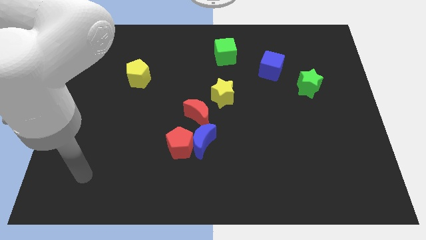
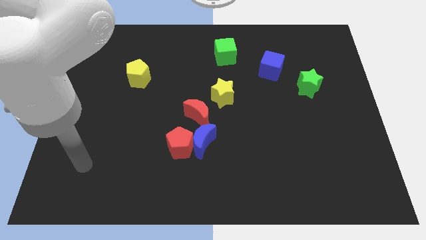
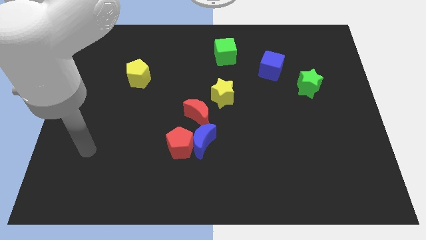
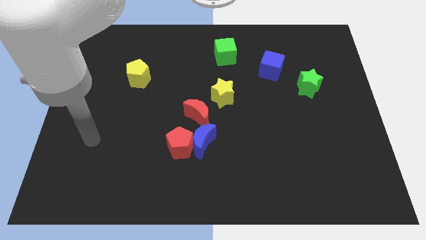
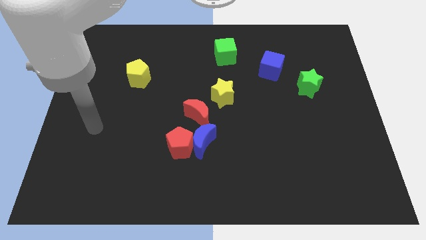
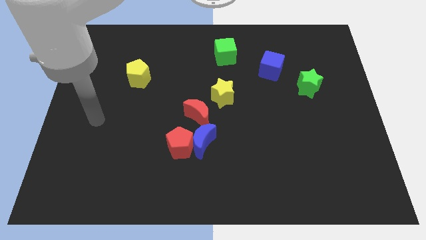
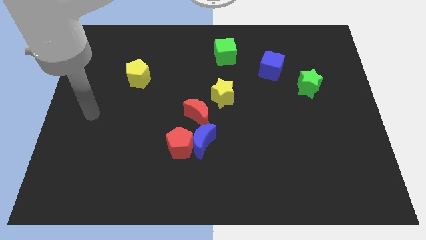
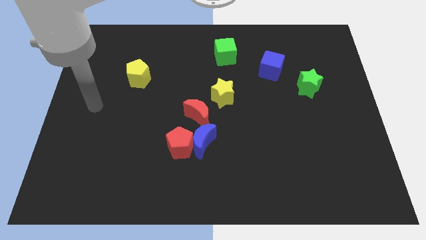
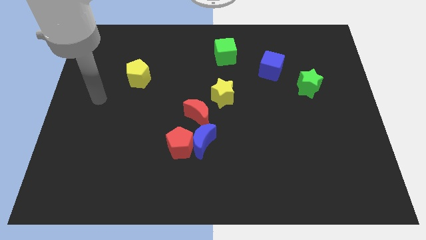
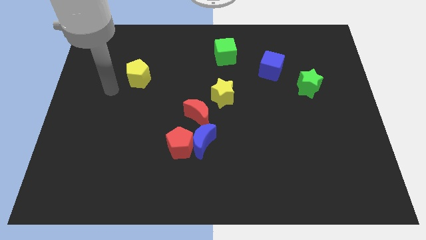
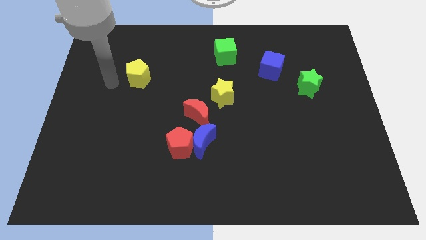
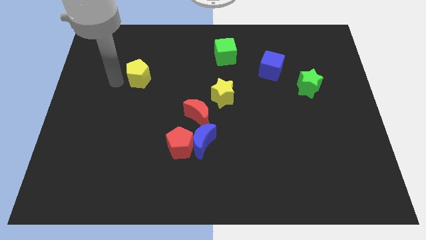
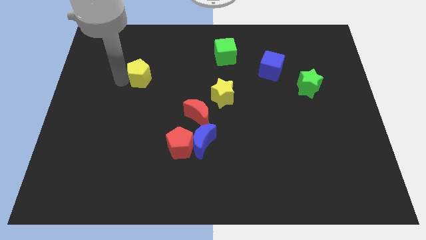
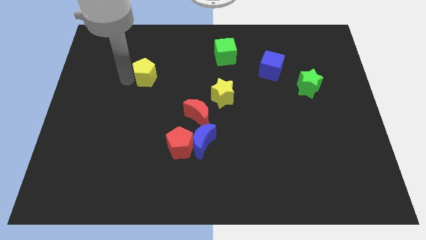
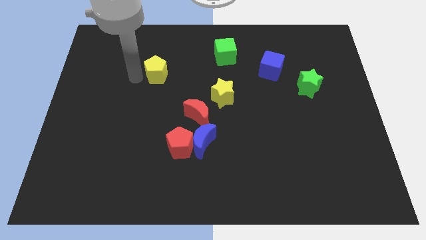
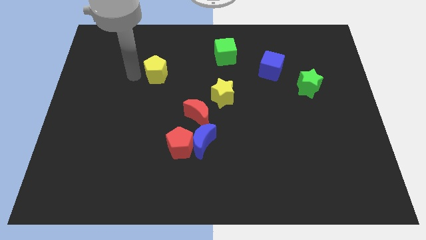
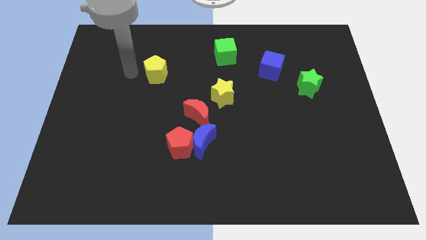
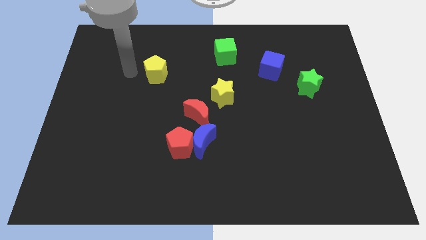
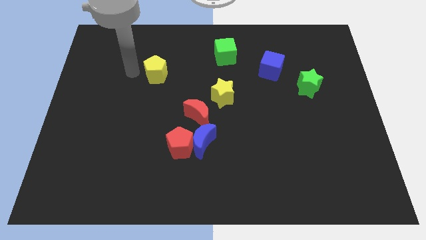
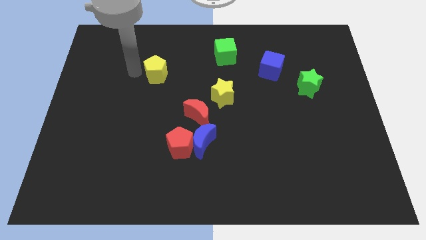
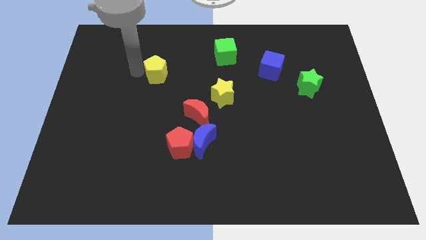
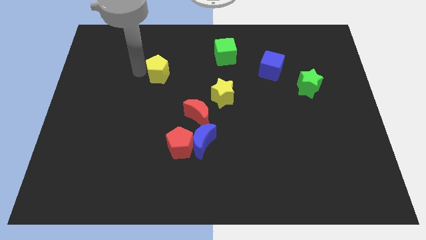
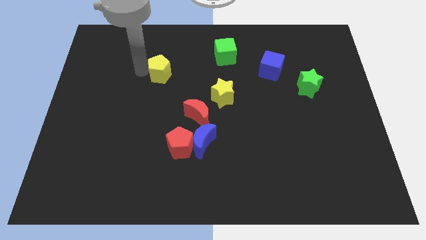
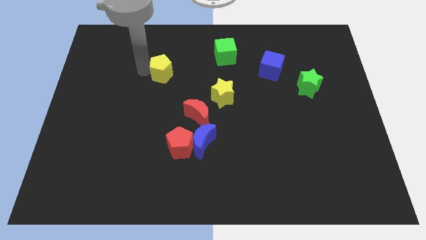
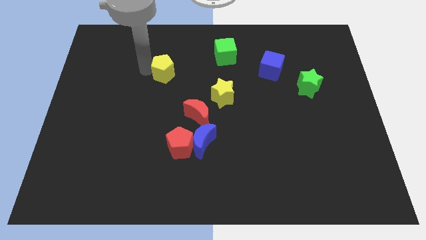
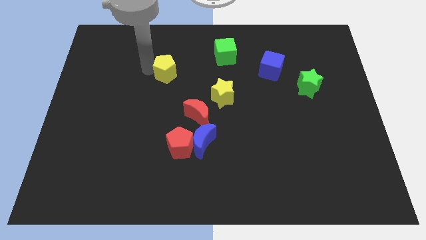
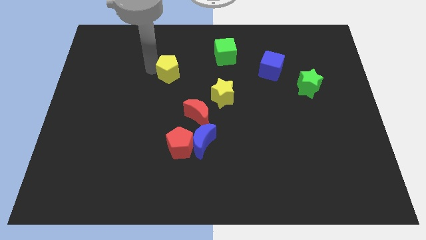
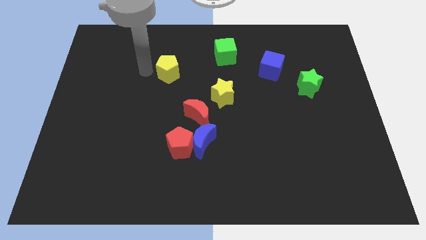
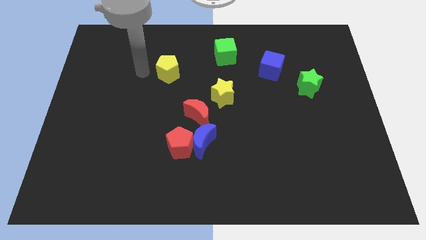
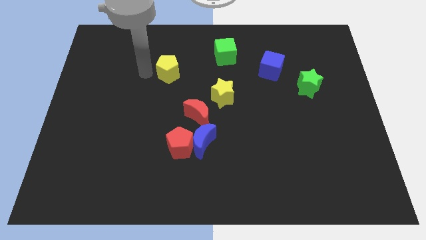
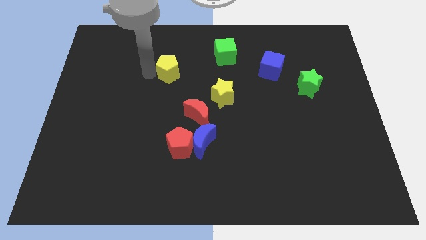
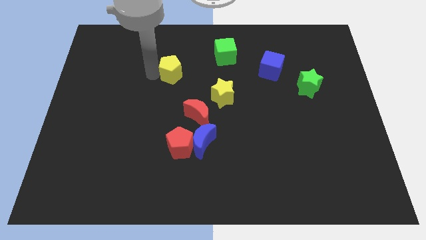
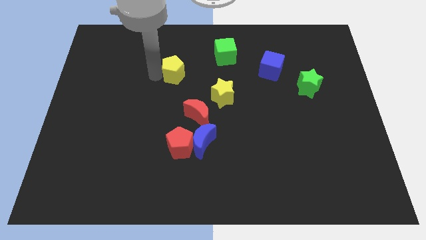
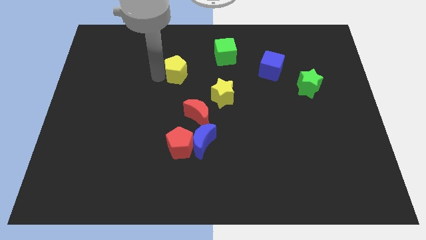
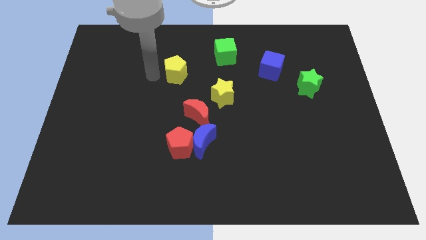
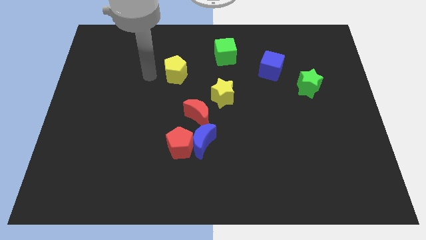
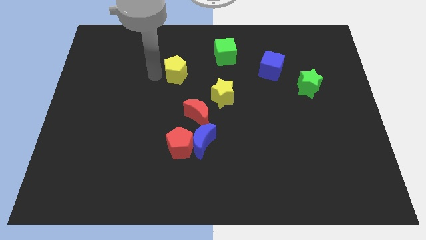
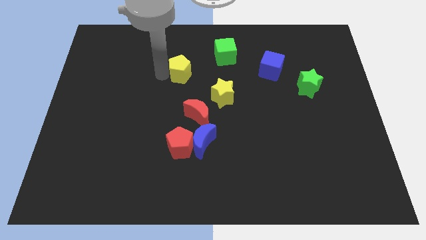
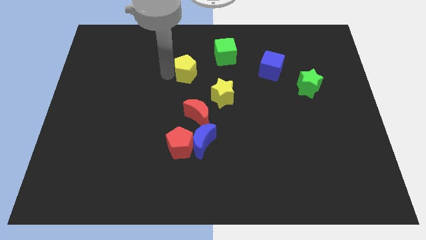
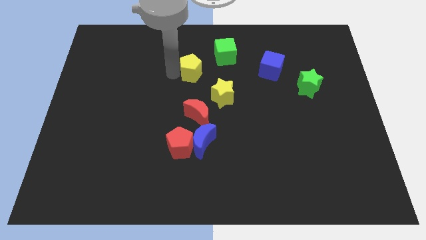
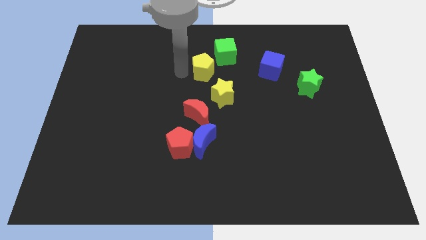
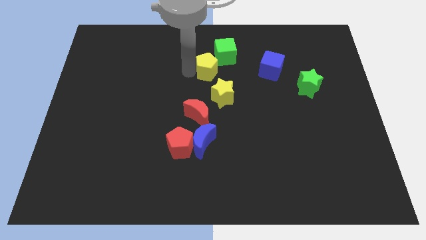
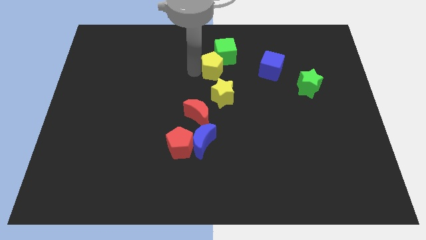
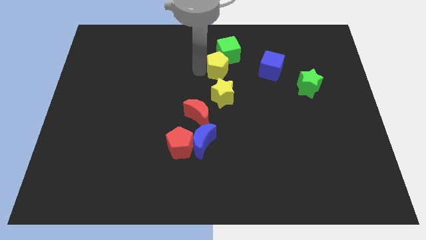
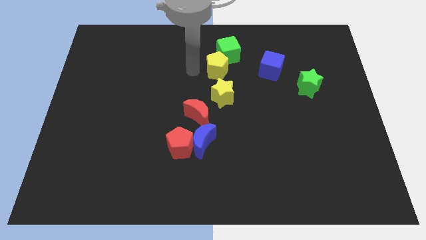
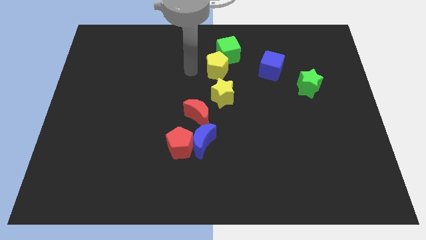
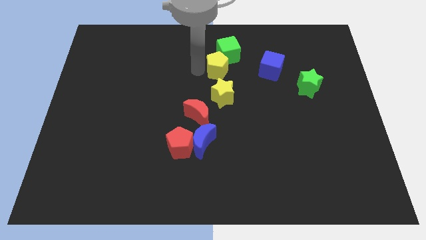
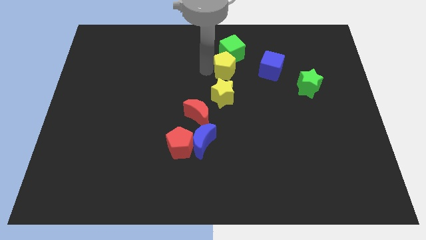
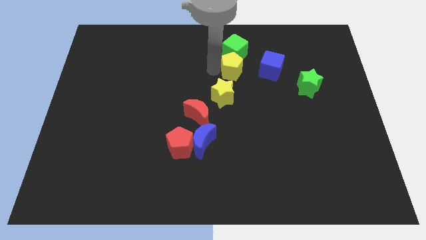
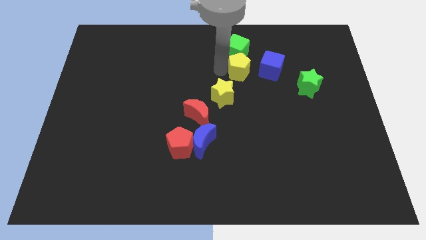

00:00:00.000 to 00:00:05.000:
move the yellow pentagon diagonally down and to the right of the green cube

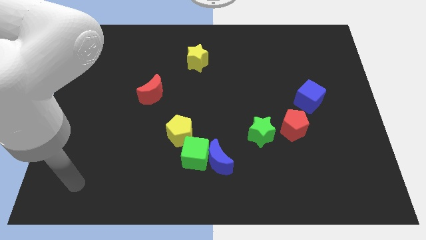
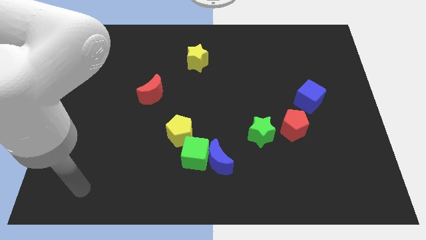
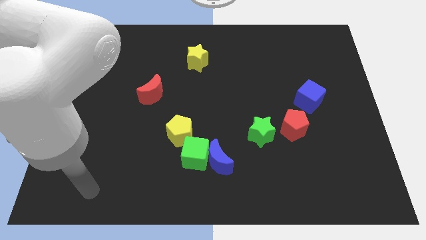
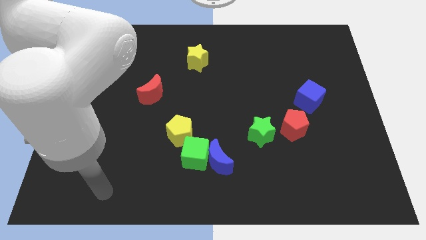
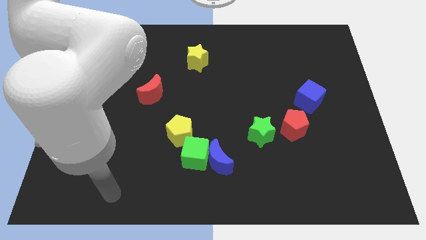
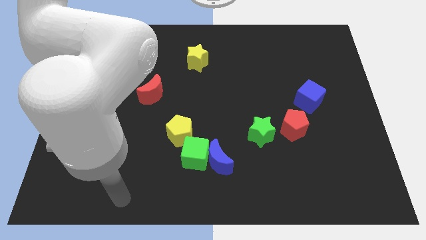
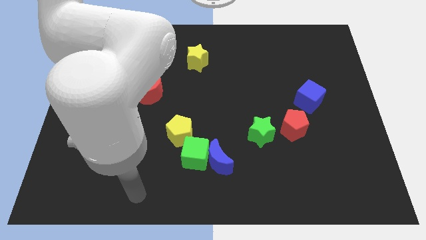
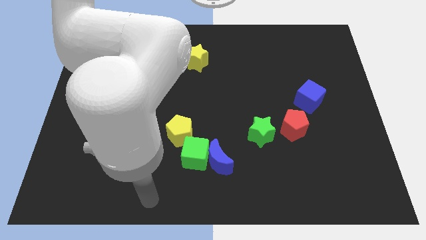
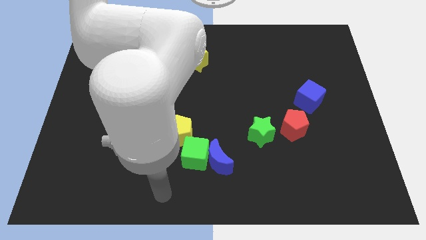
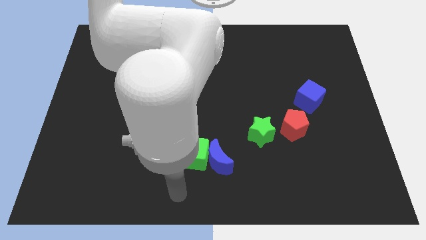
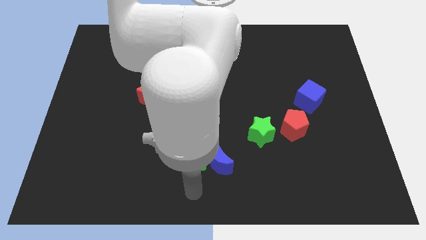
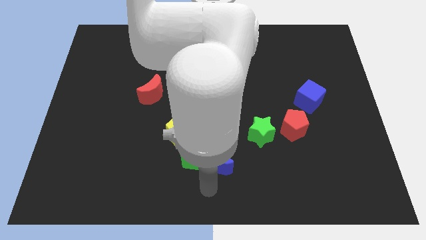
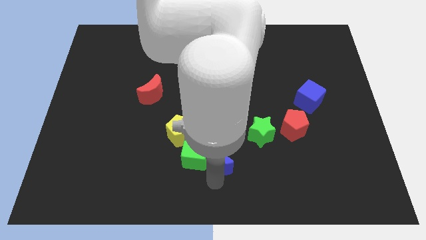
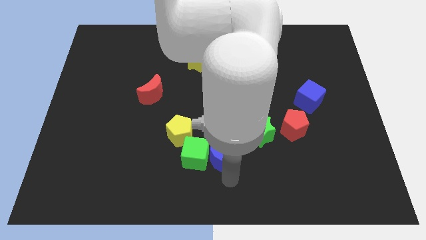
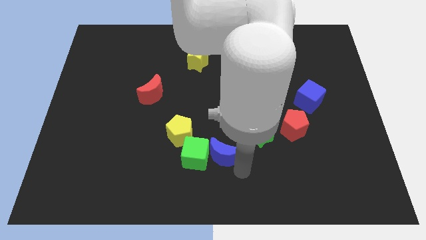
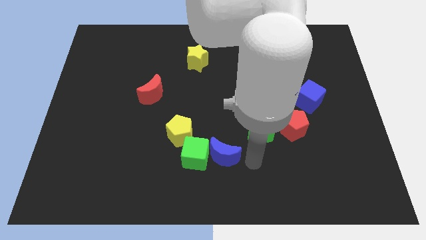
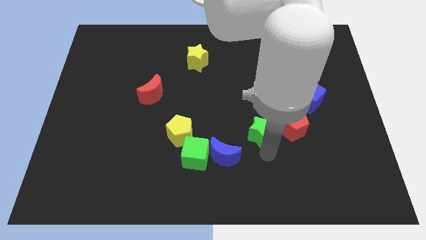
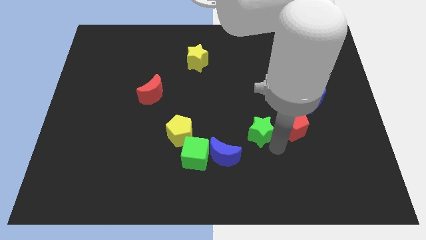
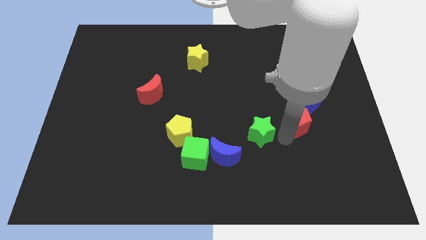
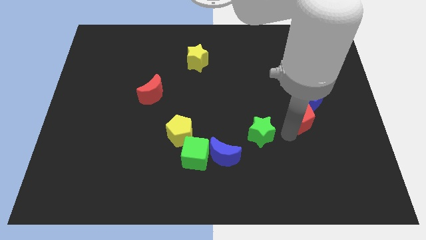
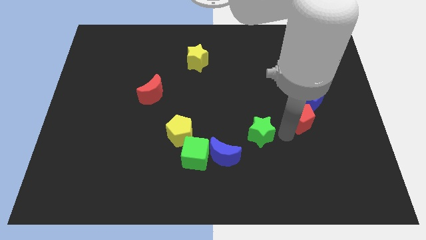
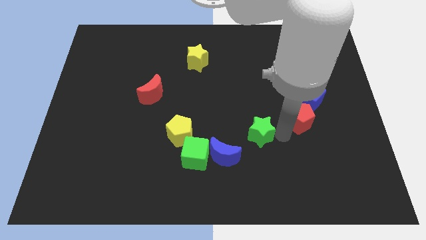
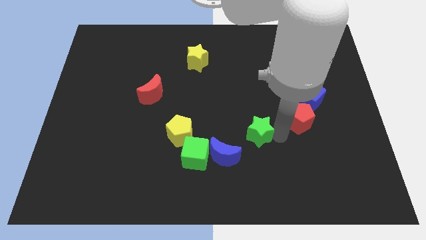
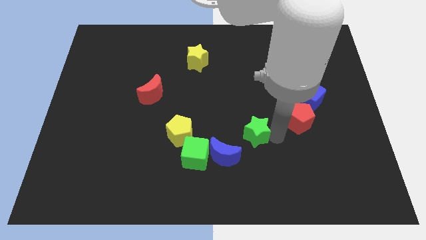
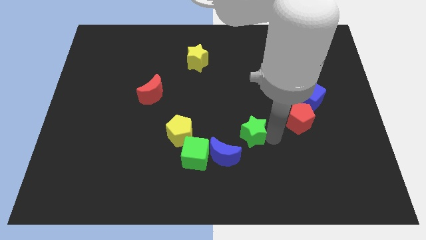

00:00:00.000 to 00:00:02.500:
put the green star to the right side of the yellow pentagon
